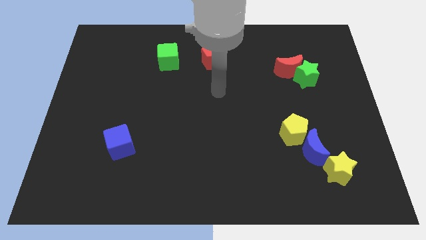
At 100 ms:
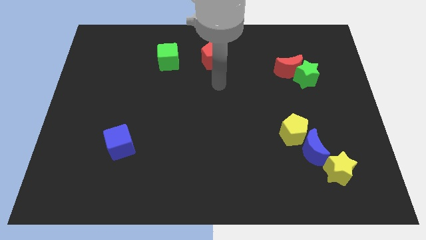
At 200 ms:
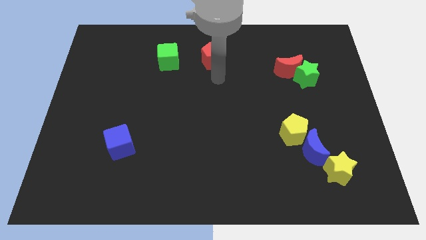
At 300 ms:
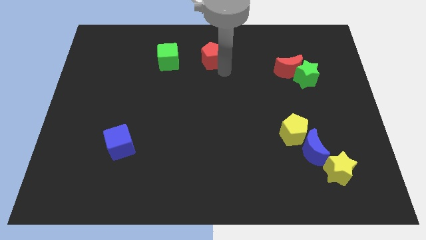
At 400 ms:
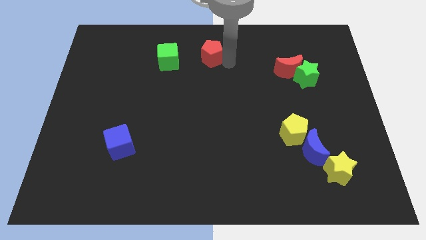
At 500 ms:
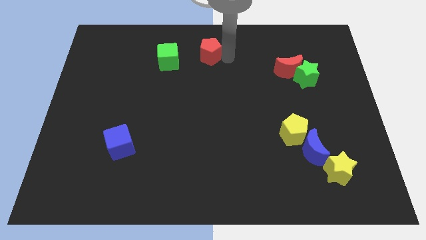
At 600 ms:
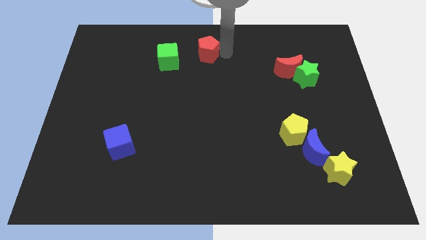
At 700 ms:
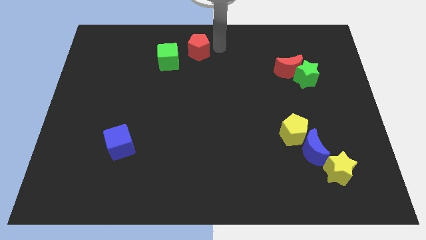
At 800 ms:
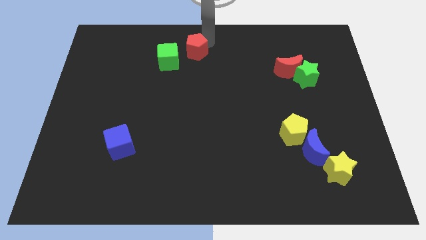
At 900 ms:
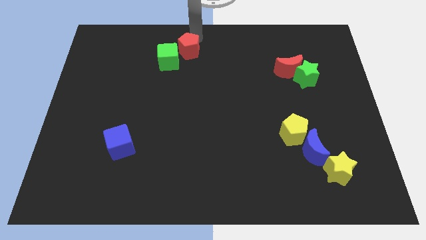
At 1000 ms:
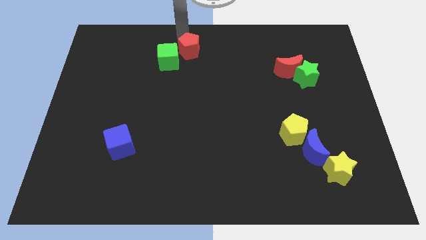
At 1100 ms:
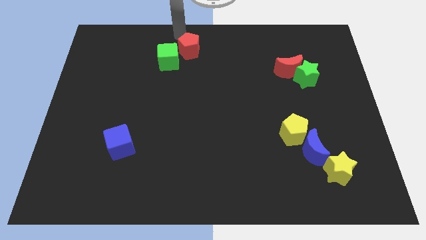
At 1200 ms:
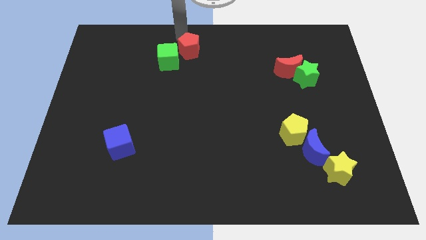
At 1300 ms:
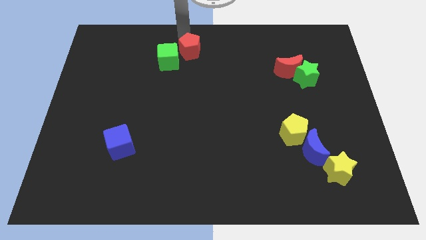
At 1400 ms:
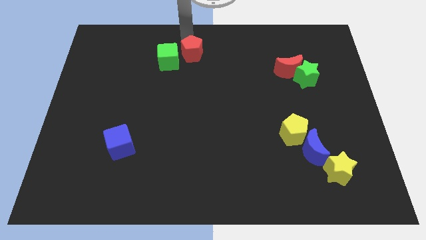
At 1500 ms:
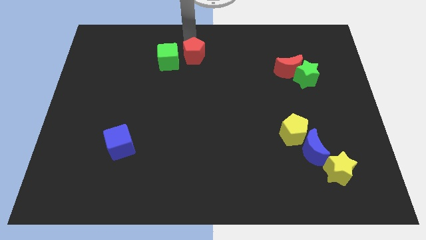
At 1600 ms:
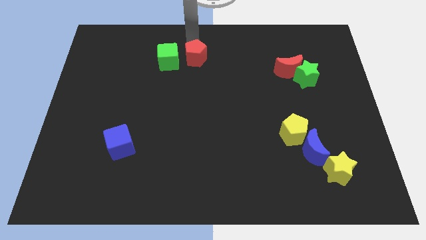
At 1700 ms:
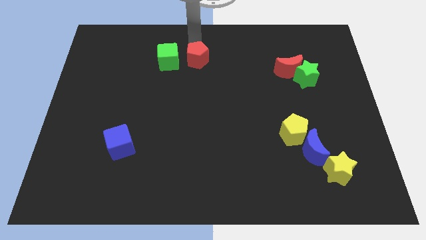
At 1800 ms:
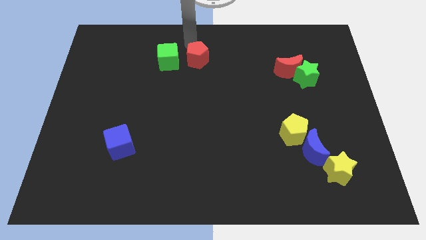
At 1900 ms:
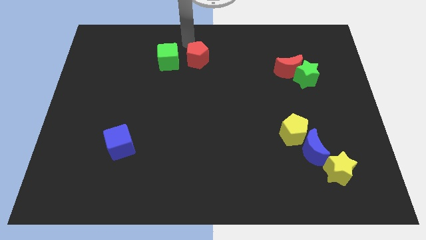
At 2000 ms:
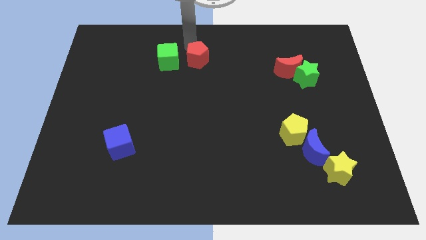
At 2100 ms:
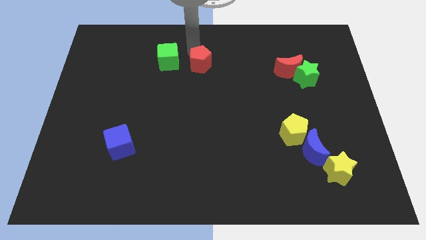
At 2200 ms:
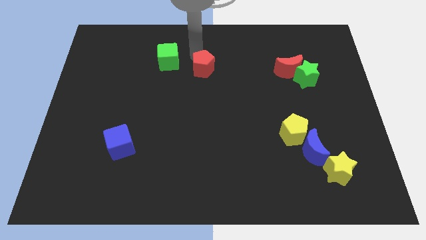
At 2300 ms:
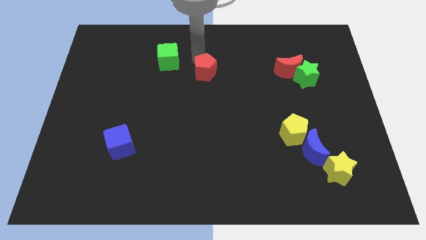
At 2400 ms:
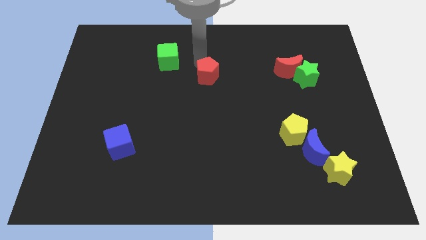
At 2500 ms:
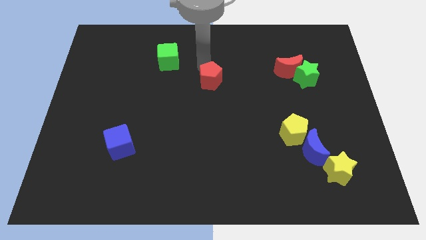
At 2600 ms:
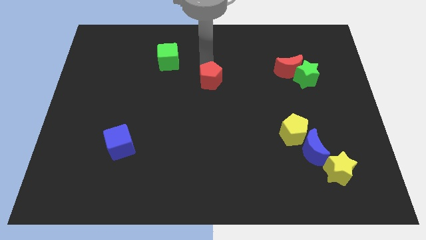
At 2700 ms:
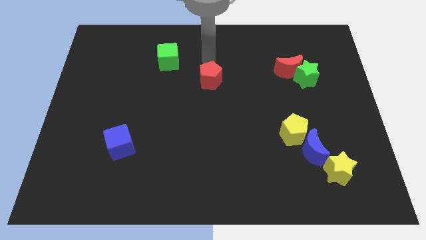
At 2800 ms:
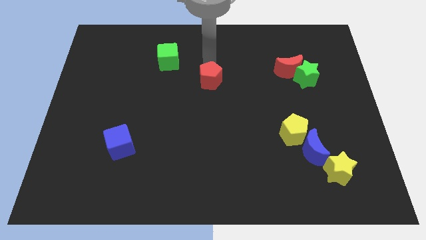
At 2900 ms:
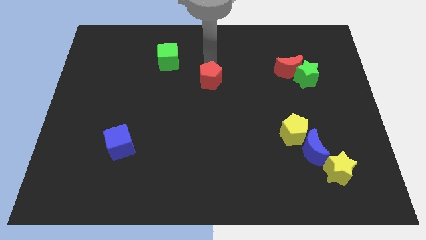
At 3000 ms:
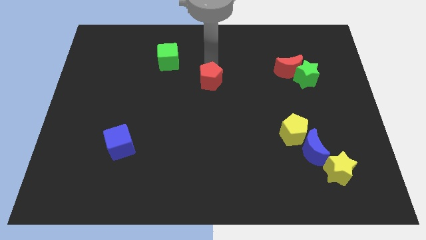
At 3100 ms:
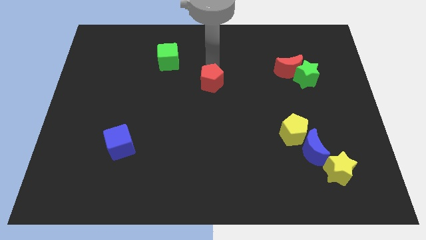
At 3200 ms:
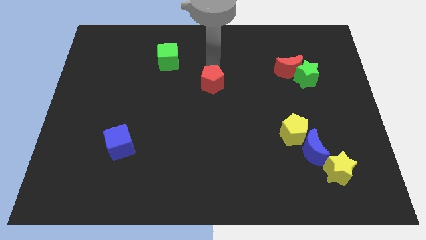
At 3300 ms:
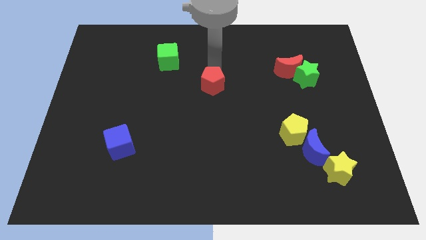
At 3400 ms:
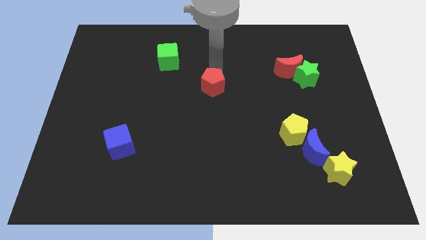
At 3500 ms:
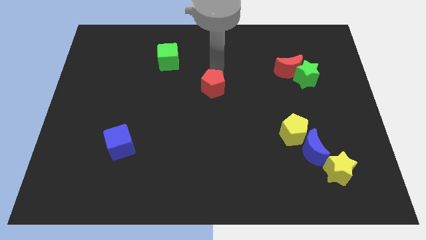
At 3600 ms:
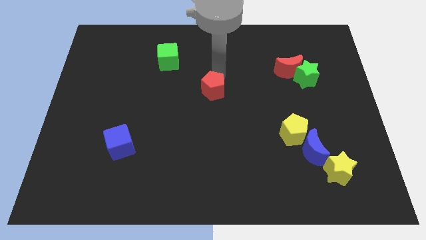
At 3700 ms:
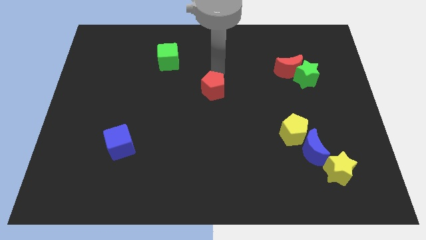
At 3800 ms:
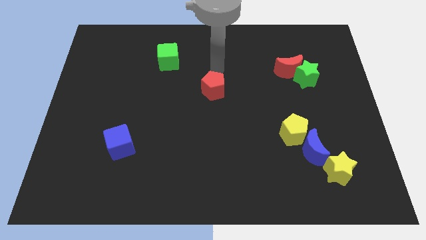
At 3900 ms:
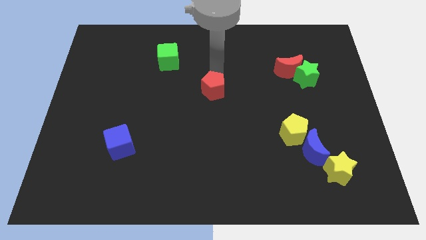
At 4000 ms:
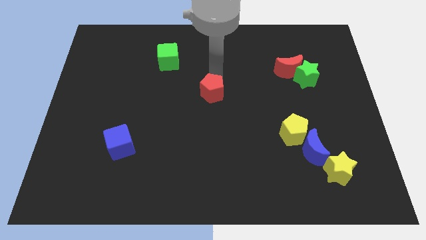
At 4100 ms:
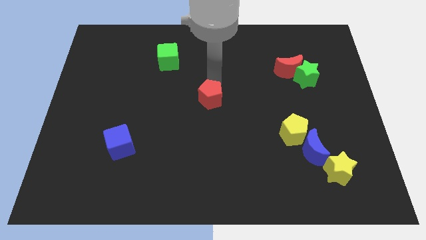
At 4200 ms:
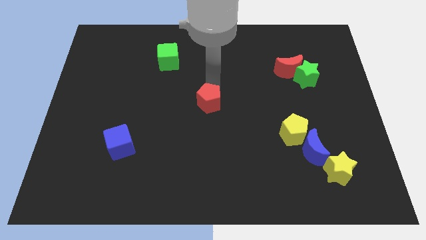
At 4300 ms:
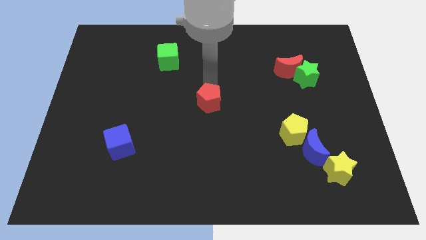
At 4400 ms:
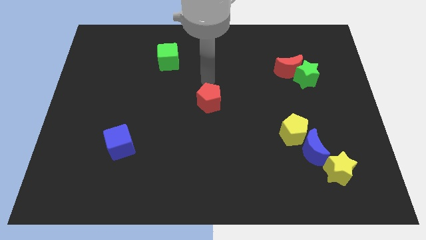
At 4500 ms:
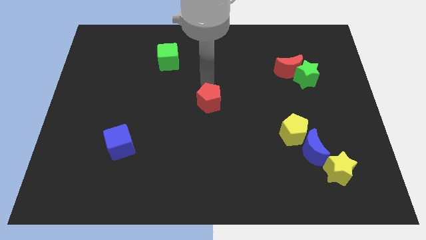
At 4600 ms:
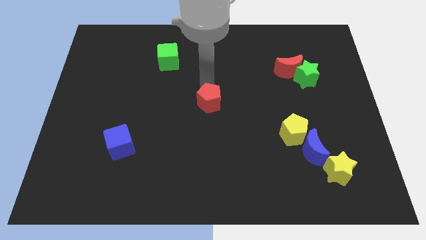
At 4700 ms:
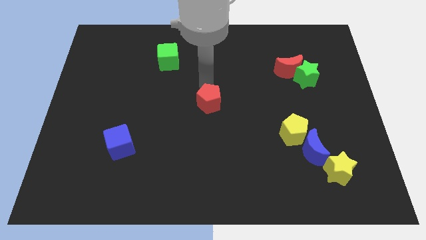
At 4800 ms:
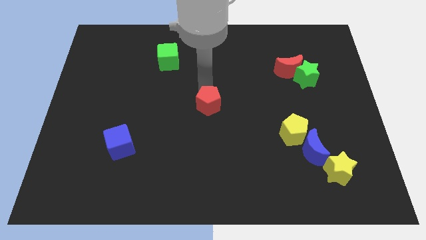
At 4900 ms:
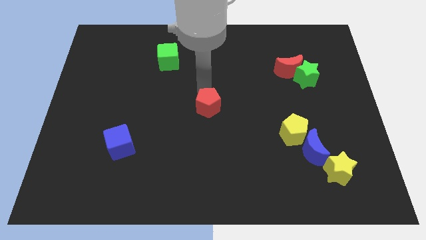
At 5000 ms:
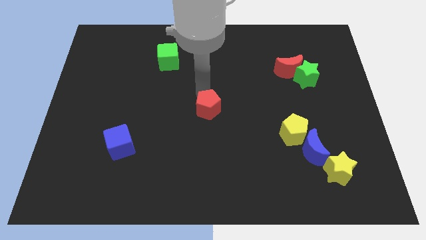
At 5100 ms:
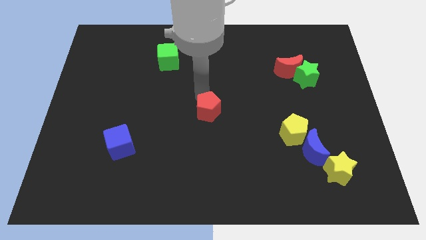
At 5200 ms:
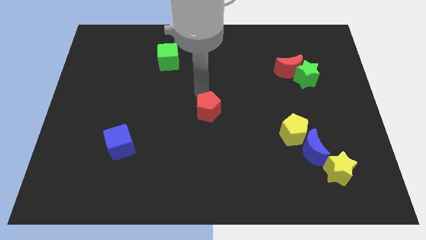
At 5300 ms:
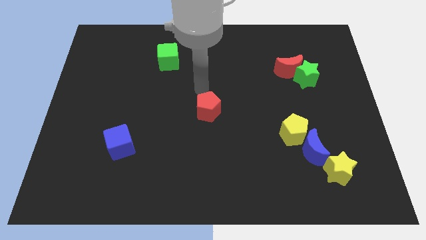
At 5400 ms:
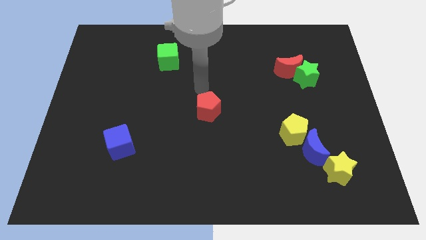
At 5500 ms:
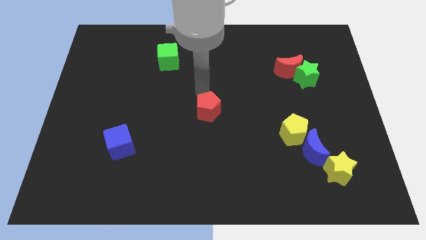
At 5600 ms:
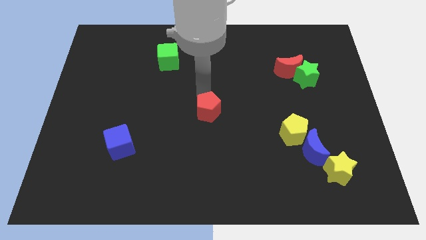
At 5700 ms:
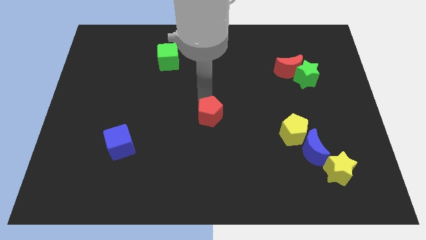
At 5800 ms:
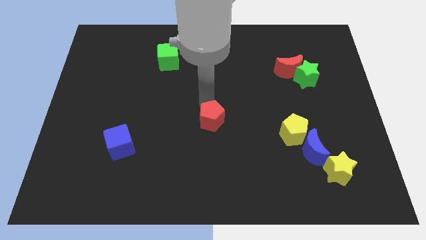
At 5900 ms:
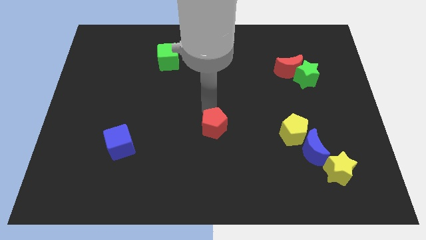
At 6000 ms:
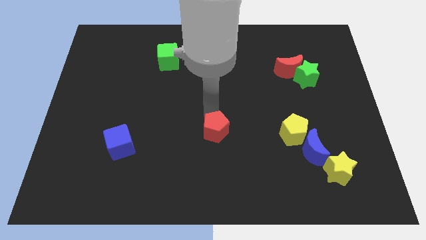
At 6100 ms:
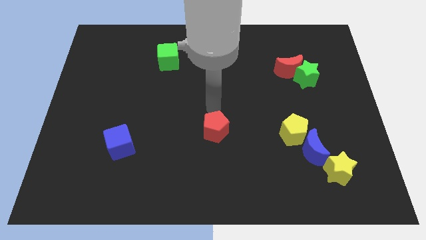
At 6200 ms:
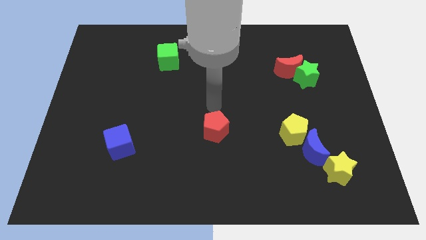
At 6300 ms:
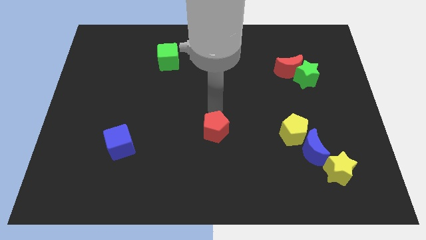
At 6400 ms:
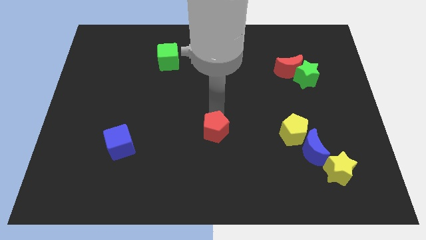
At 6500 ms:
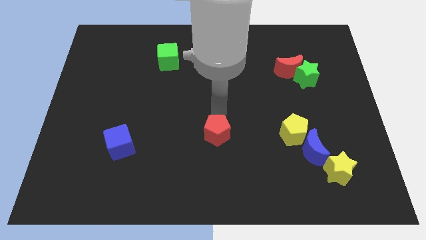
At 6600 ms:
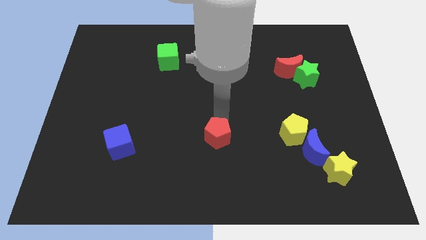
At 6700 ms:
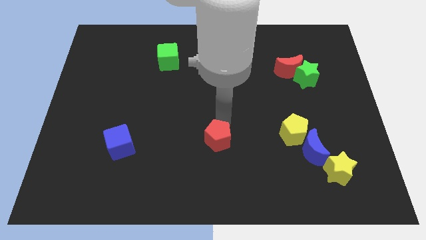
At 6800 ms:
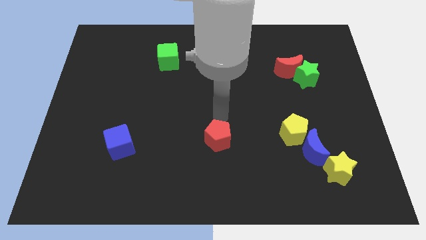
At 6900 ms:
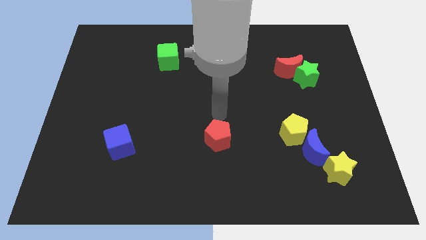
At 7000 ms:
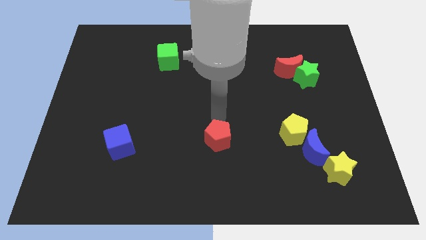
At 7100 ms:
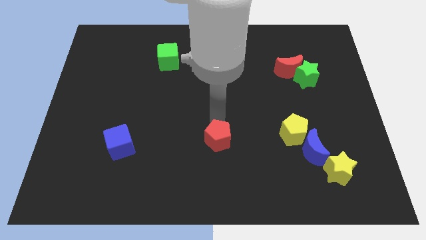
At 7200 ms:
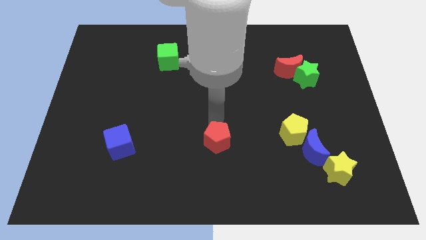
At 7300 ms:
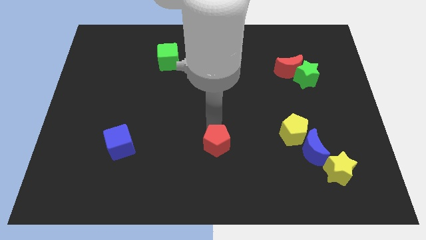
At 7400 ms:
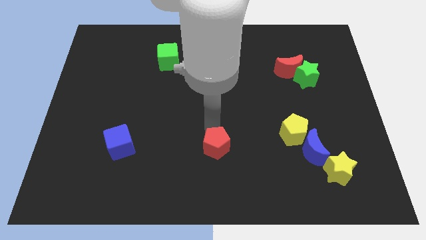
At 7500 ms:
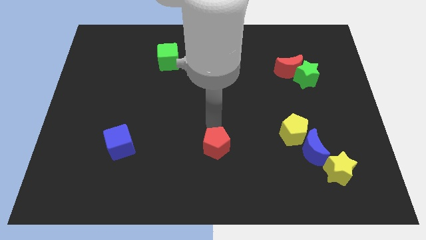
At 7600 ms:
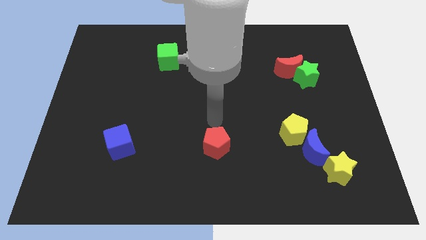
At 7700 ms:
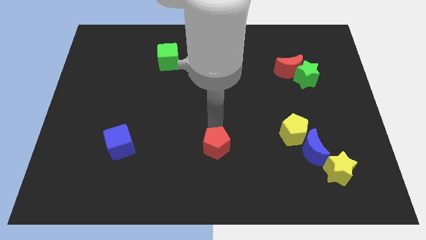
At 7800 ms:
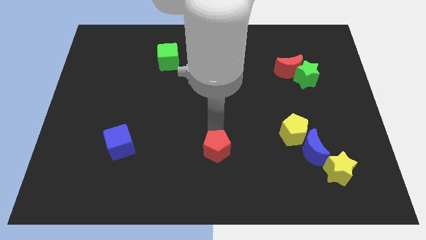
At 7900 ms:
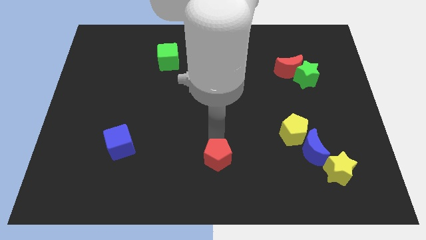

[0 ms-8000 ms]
slide the red pentagon to the bottom

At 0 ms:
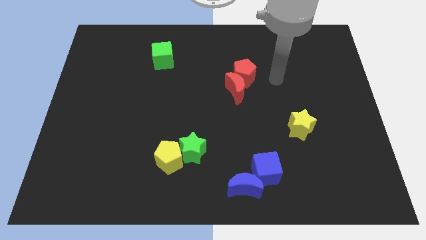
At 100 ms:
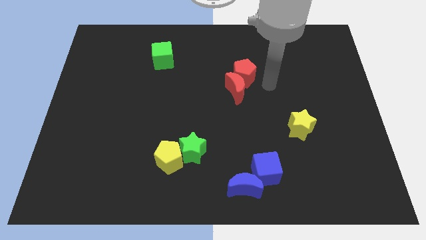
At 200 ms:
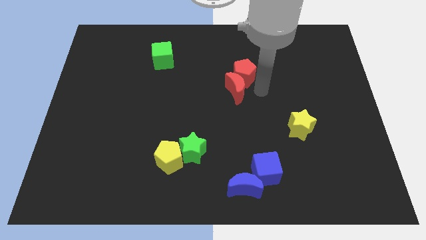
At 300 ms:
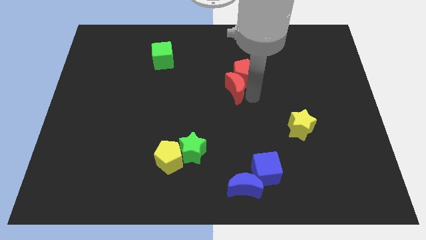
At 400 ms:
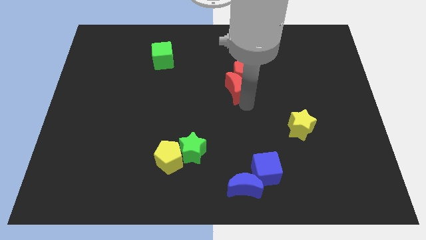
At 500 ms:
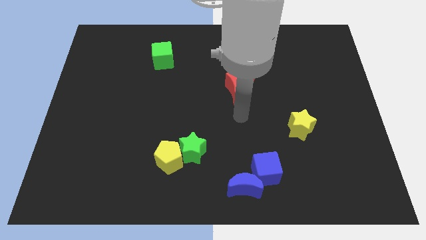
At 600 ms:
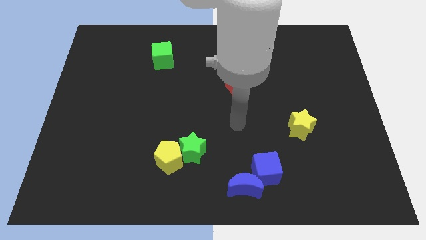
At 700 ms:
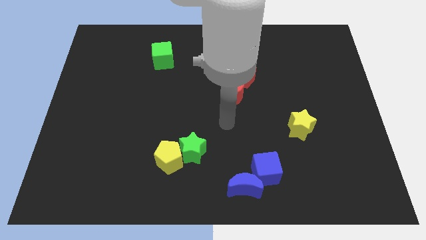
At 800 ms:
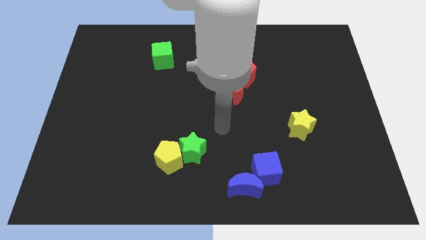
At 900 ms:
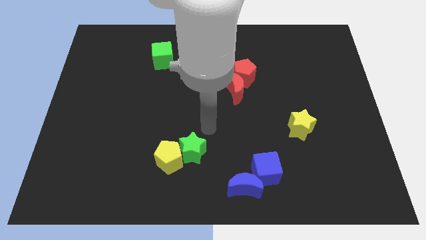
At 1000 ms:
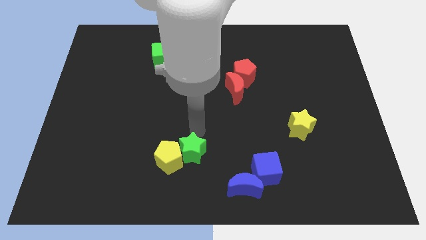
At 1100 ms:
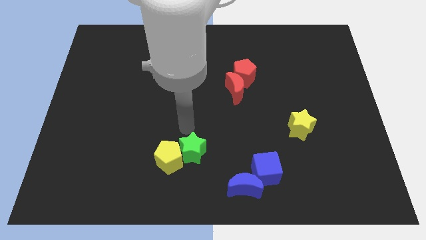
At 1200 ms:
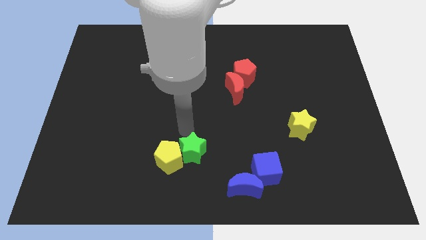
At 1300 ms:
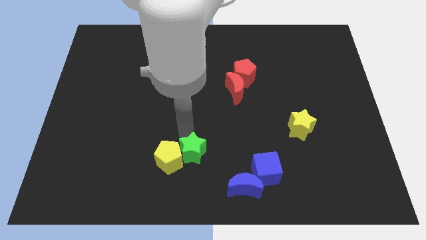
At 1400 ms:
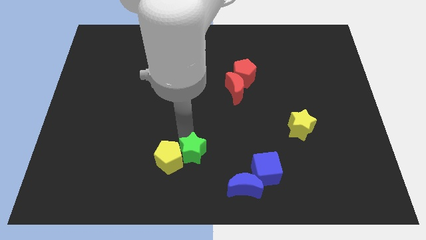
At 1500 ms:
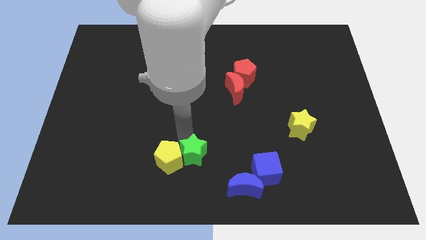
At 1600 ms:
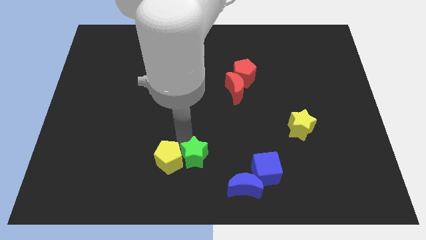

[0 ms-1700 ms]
move the green star to the bottom
